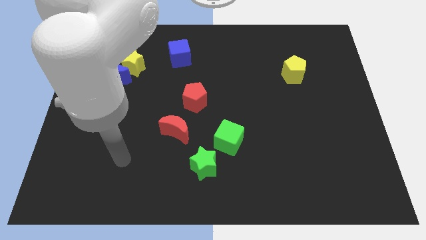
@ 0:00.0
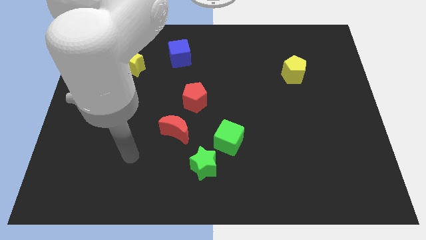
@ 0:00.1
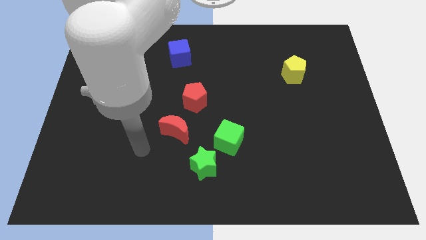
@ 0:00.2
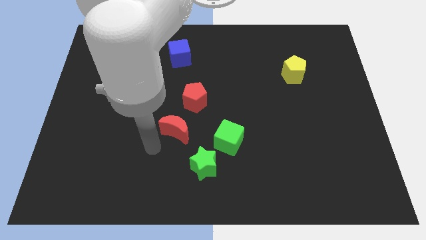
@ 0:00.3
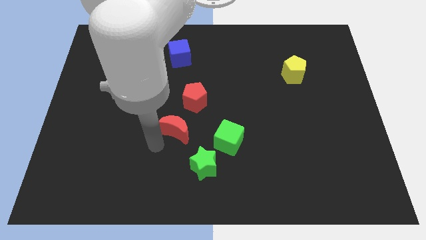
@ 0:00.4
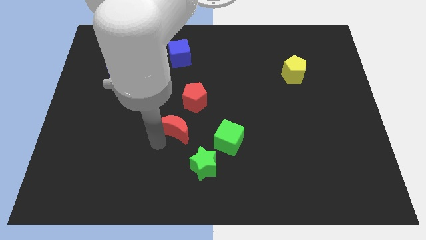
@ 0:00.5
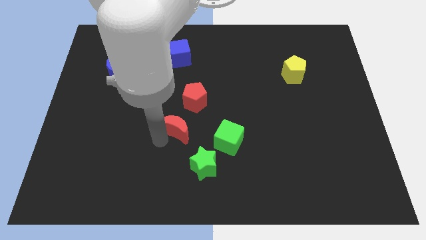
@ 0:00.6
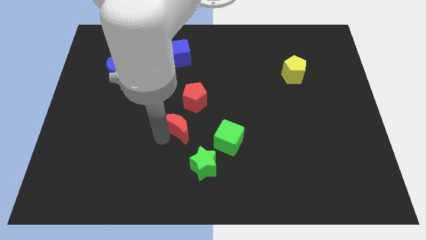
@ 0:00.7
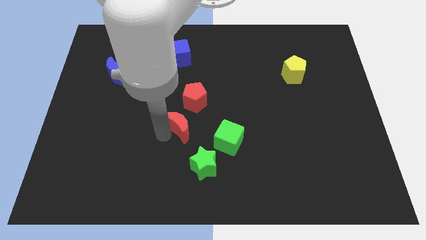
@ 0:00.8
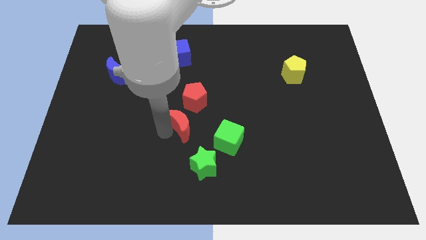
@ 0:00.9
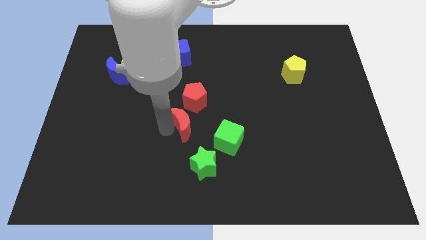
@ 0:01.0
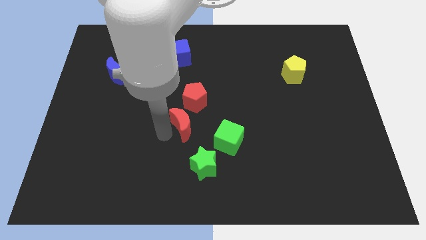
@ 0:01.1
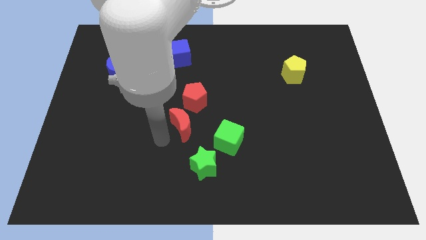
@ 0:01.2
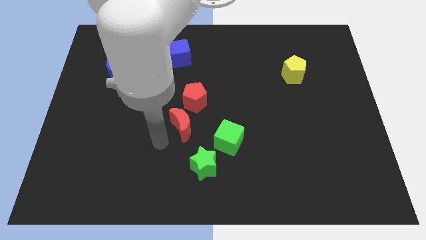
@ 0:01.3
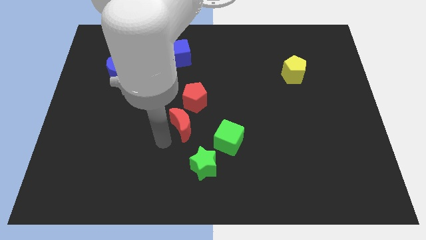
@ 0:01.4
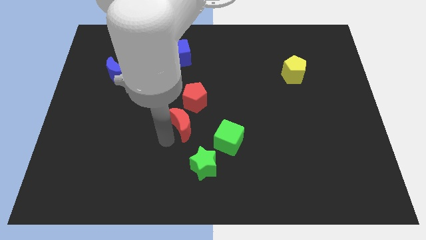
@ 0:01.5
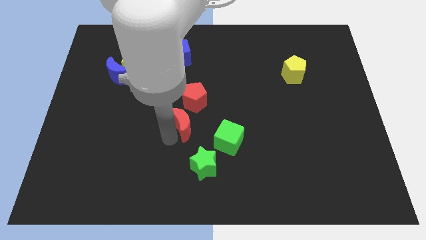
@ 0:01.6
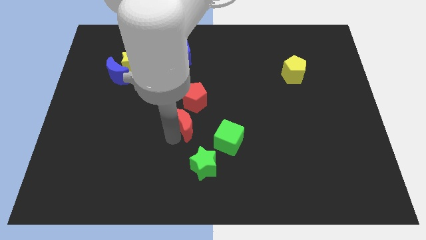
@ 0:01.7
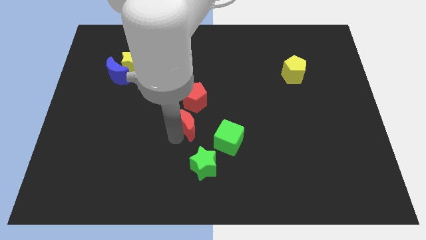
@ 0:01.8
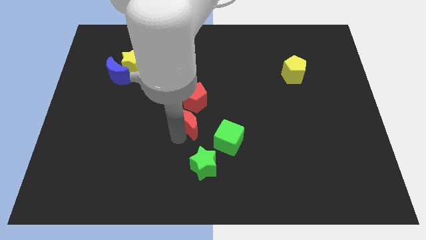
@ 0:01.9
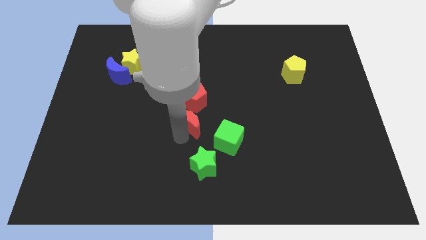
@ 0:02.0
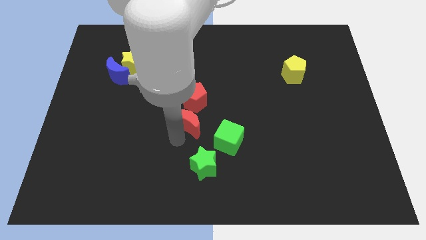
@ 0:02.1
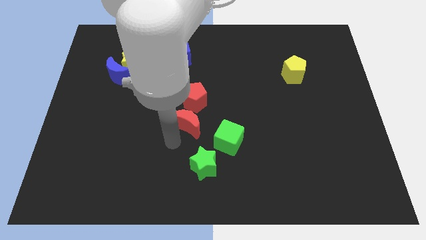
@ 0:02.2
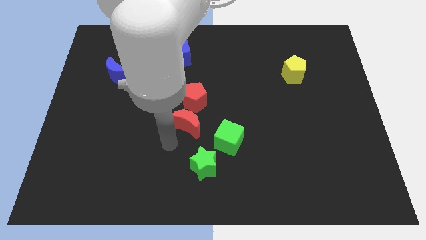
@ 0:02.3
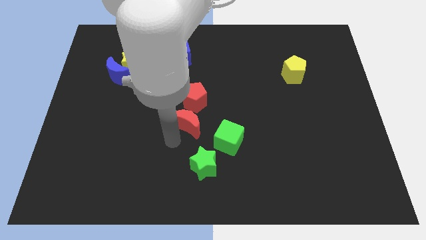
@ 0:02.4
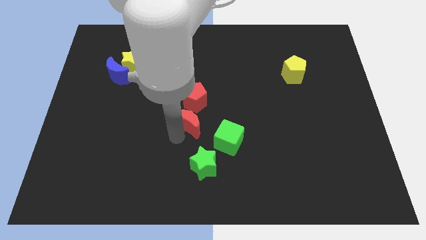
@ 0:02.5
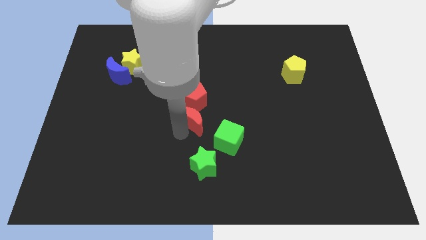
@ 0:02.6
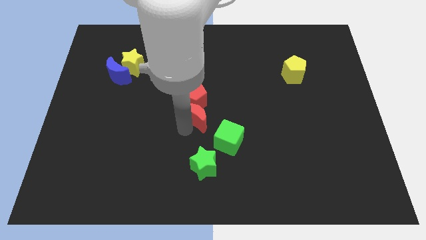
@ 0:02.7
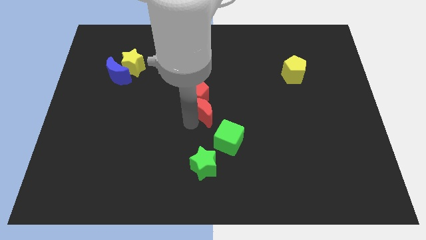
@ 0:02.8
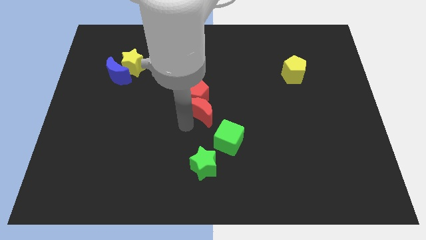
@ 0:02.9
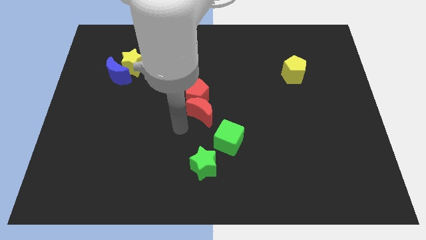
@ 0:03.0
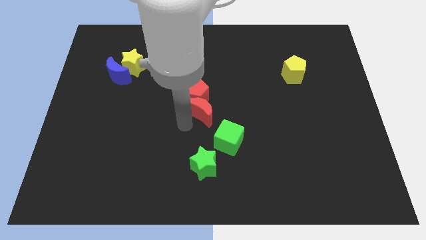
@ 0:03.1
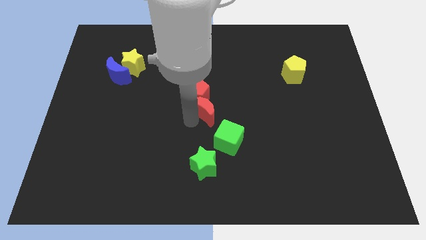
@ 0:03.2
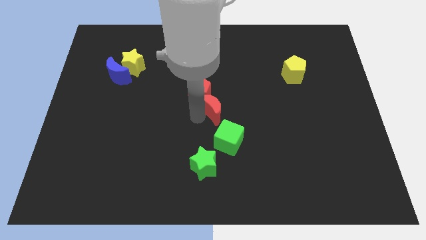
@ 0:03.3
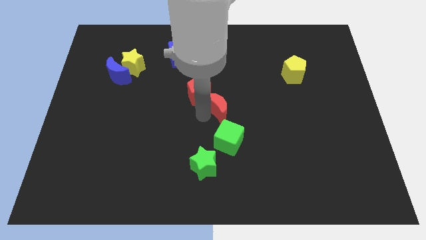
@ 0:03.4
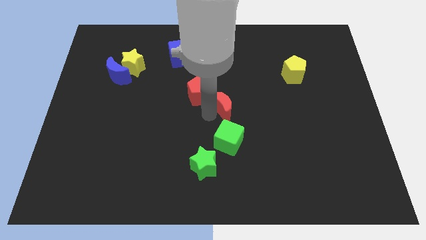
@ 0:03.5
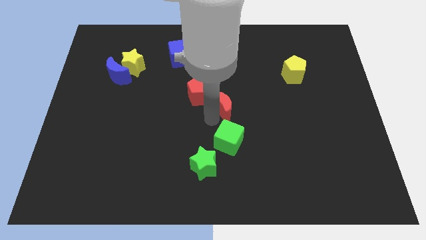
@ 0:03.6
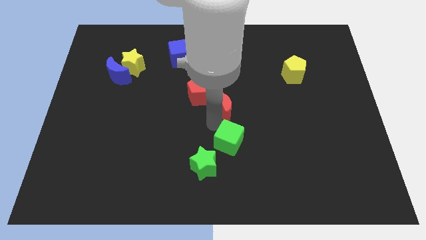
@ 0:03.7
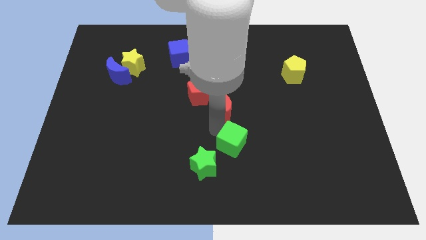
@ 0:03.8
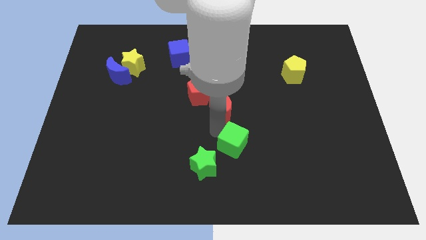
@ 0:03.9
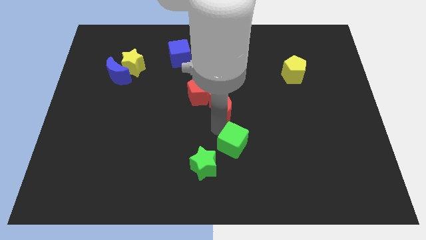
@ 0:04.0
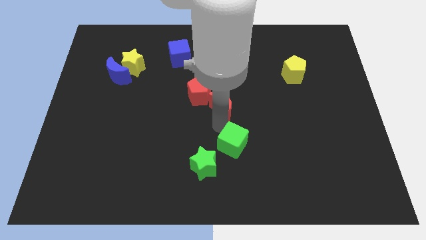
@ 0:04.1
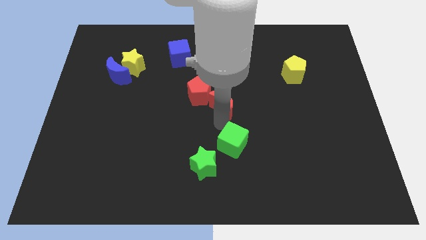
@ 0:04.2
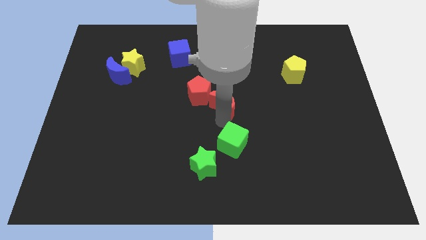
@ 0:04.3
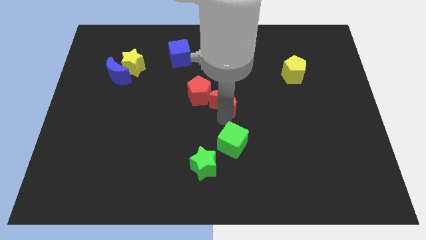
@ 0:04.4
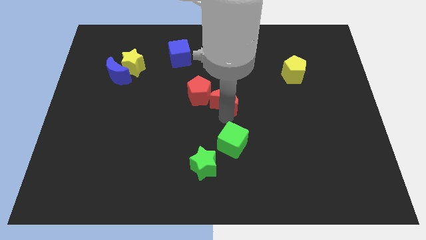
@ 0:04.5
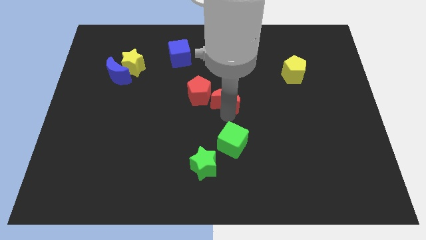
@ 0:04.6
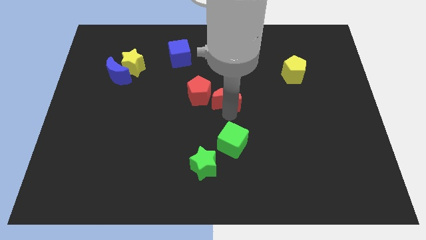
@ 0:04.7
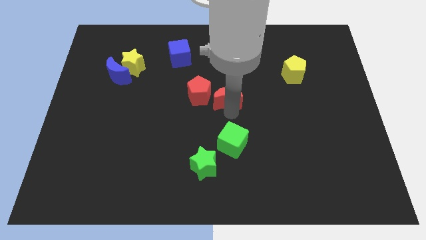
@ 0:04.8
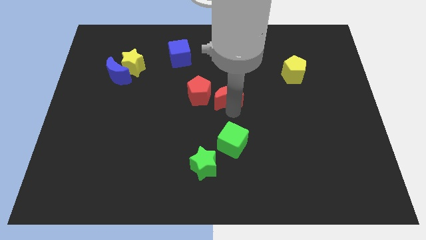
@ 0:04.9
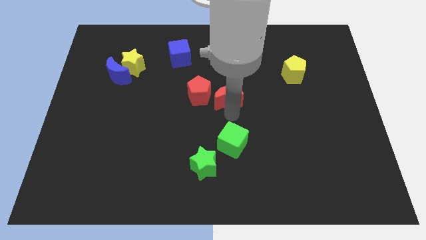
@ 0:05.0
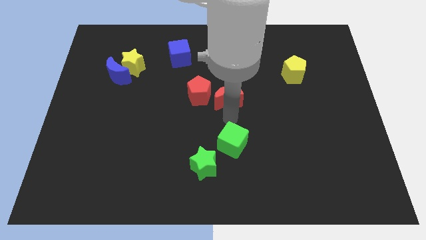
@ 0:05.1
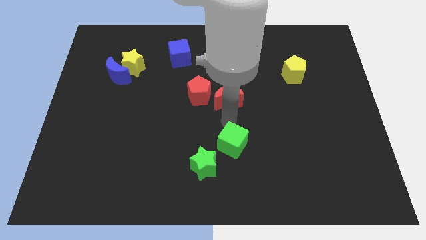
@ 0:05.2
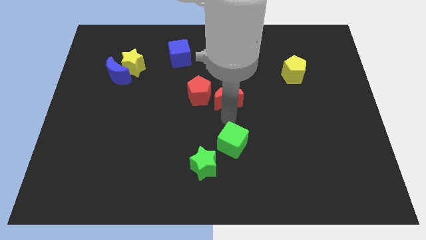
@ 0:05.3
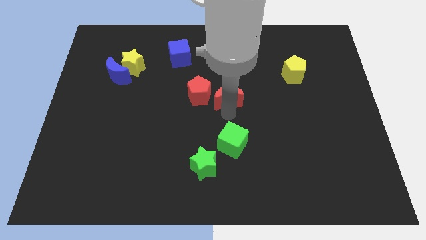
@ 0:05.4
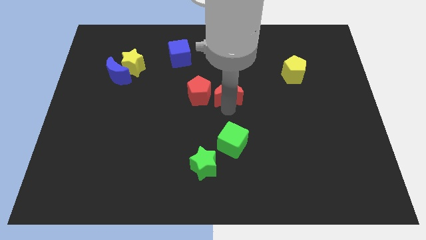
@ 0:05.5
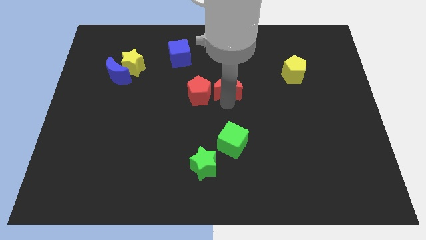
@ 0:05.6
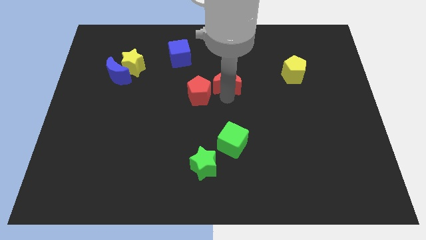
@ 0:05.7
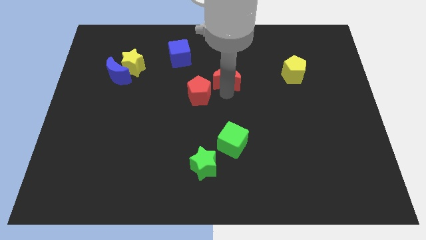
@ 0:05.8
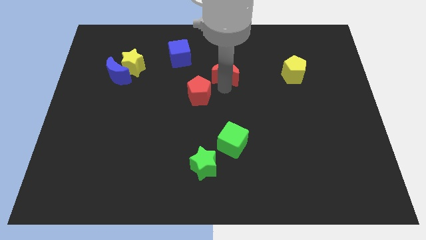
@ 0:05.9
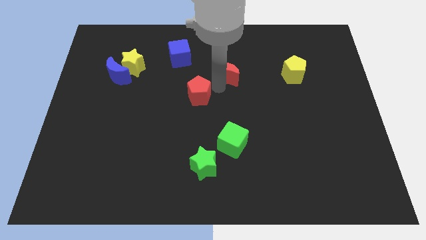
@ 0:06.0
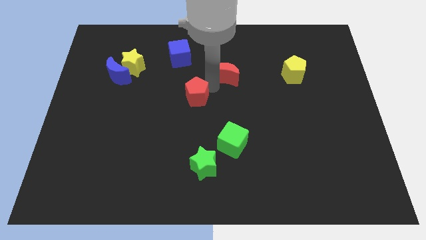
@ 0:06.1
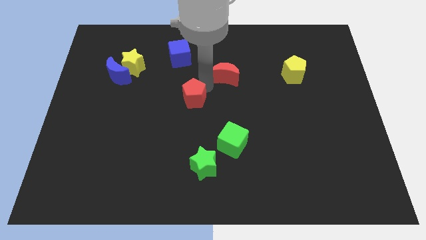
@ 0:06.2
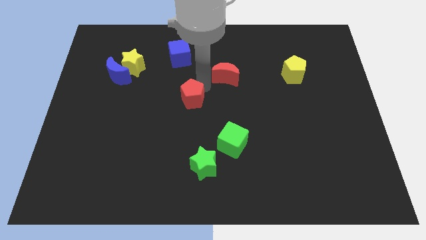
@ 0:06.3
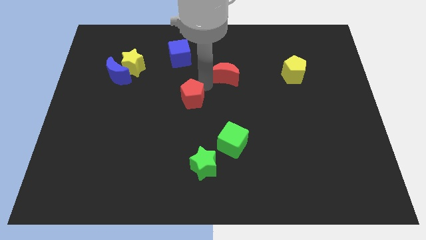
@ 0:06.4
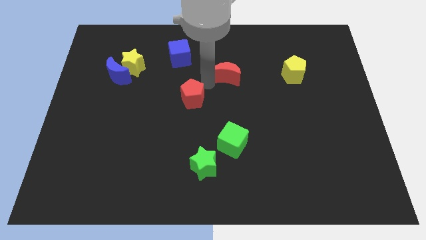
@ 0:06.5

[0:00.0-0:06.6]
slide the red moon diagonally upwards and to the right

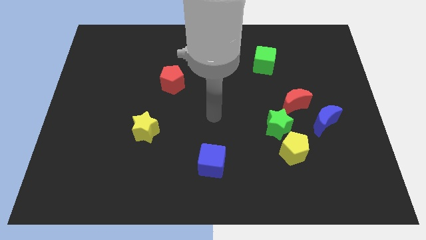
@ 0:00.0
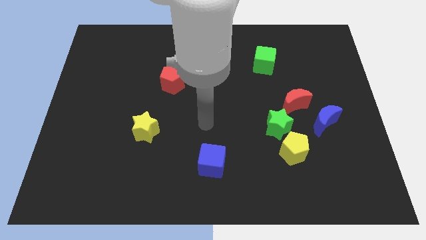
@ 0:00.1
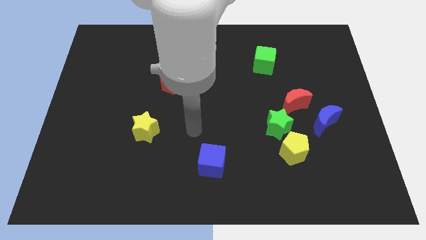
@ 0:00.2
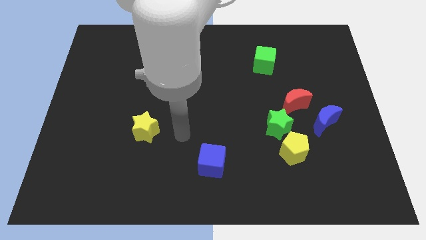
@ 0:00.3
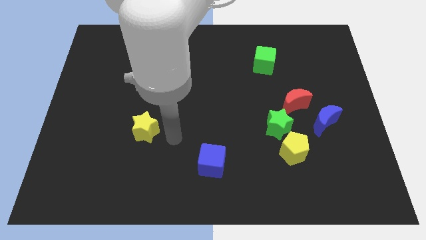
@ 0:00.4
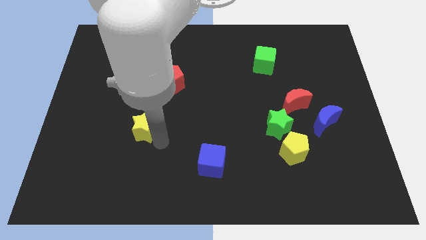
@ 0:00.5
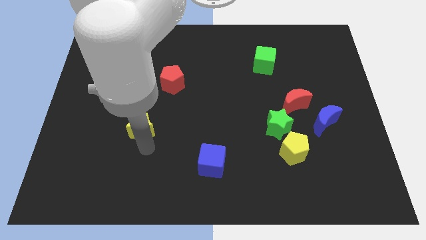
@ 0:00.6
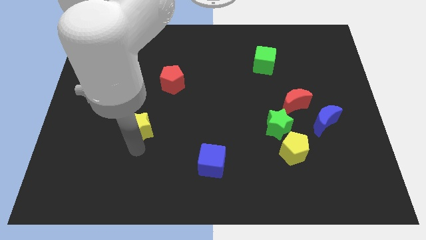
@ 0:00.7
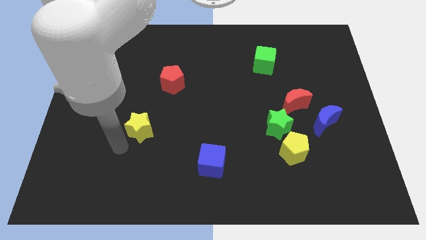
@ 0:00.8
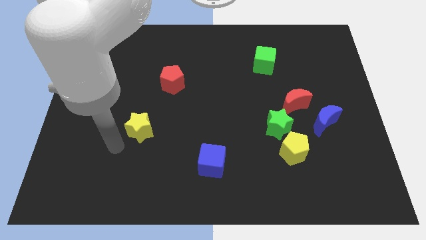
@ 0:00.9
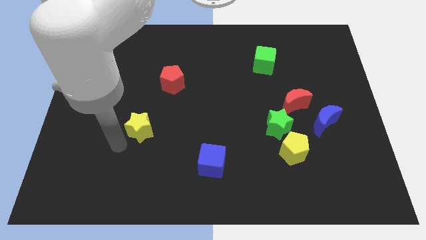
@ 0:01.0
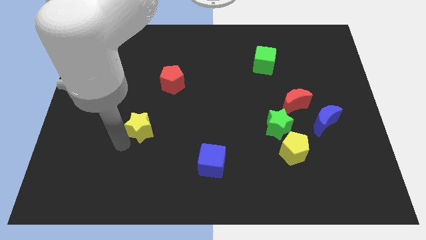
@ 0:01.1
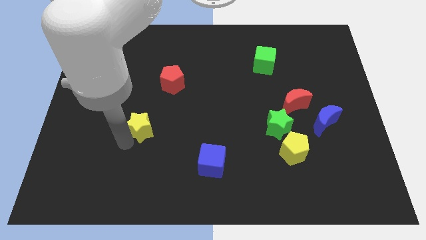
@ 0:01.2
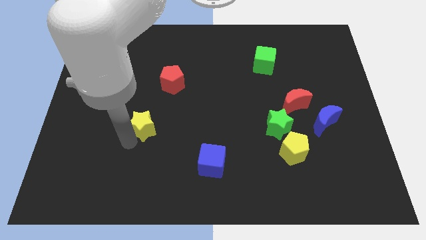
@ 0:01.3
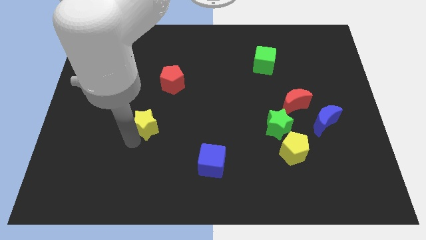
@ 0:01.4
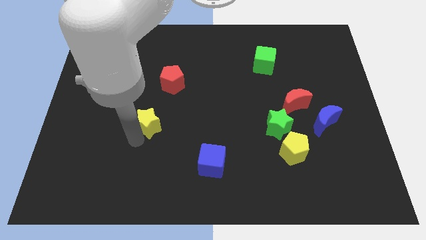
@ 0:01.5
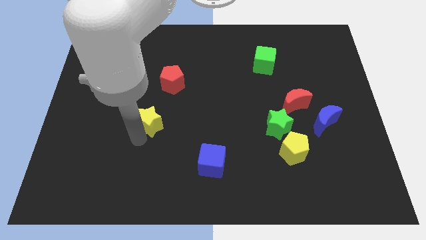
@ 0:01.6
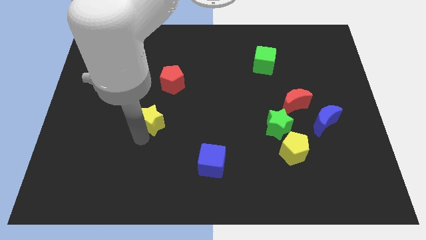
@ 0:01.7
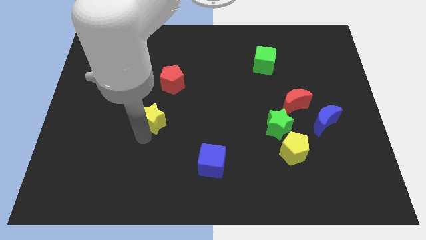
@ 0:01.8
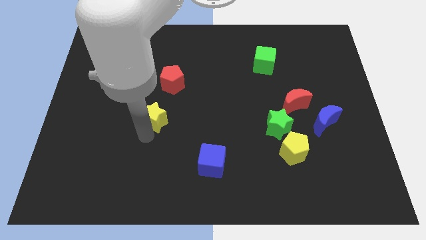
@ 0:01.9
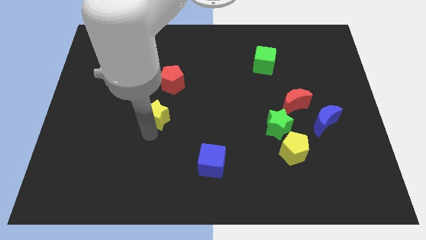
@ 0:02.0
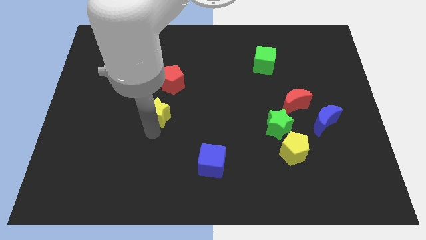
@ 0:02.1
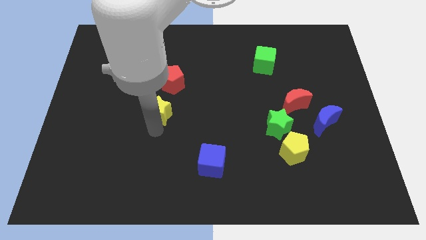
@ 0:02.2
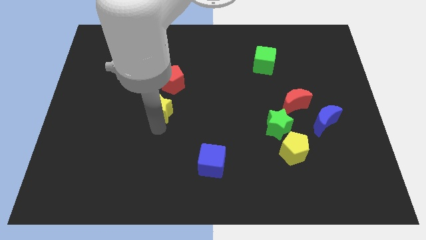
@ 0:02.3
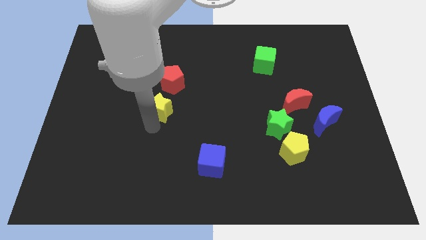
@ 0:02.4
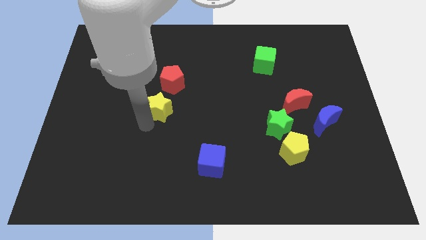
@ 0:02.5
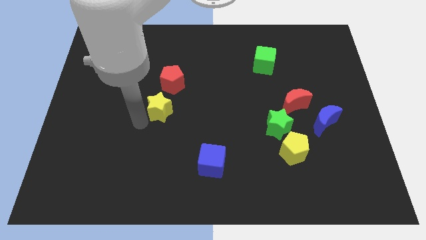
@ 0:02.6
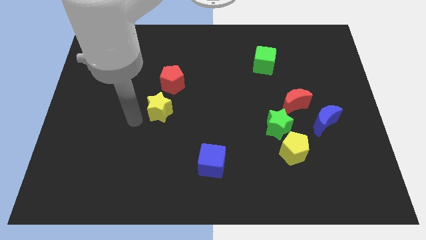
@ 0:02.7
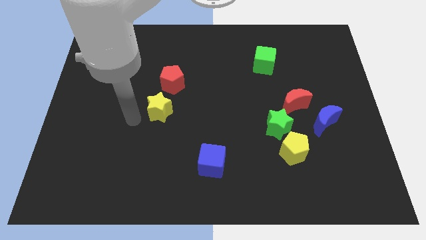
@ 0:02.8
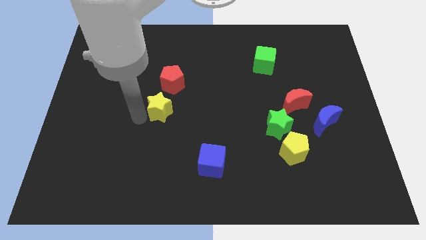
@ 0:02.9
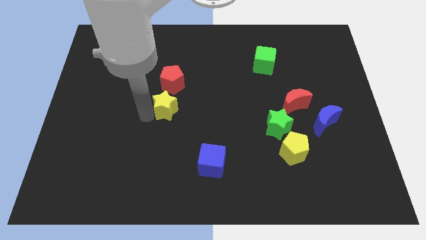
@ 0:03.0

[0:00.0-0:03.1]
move the yellow star up and right diagonally slightly
